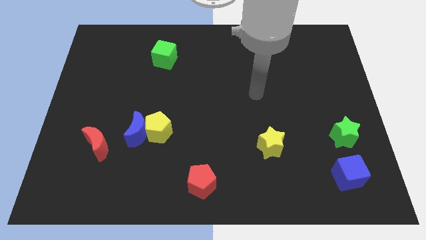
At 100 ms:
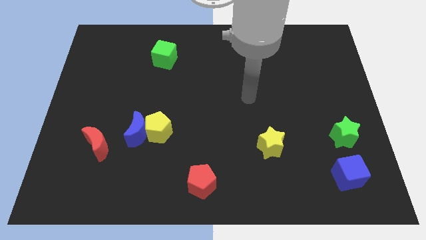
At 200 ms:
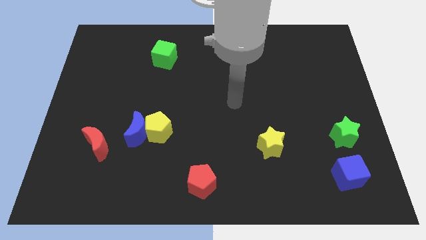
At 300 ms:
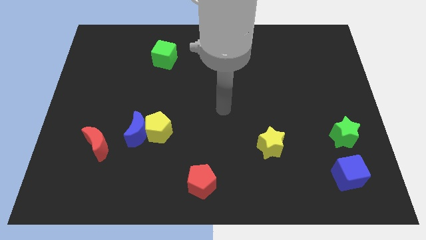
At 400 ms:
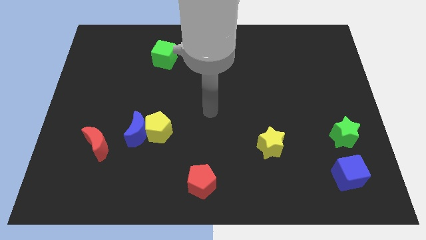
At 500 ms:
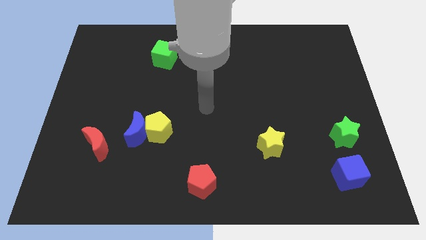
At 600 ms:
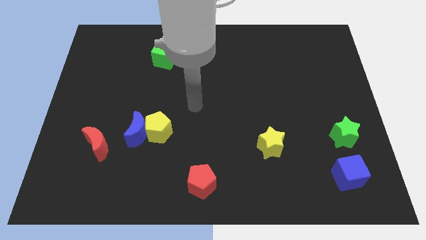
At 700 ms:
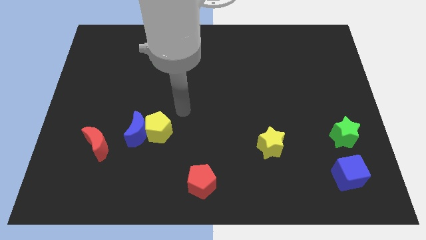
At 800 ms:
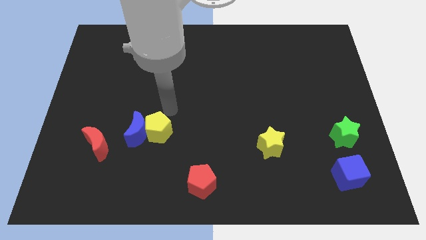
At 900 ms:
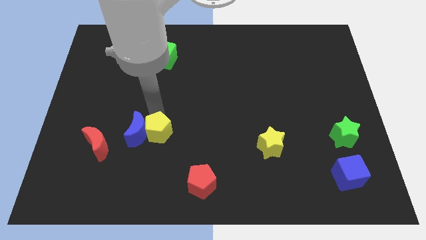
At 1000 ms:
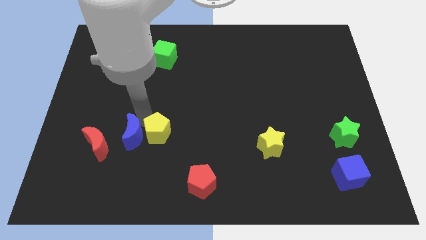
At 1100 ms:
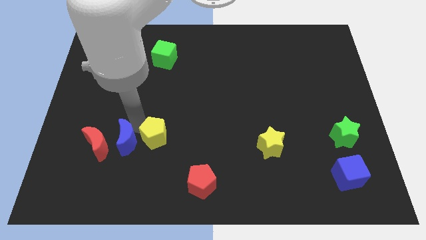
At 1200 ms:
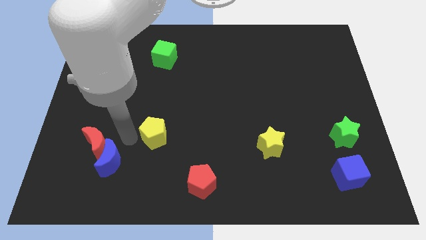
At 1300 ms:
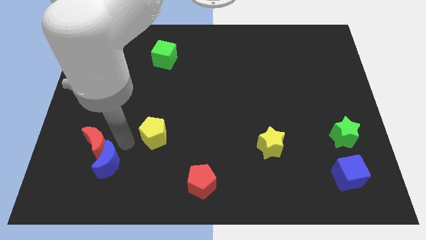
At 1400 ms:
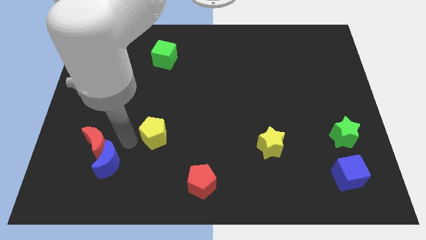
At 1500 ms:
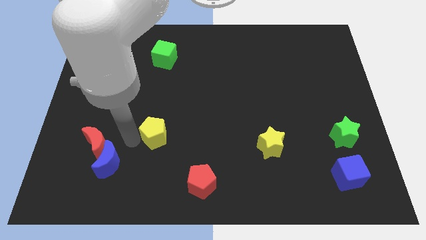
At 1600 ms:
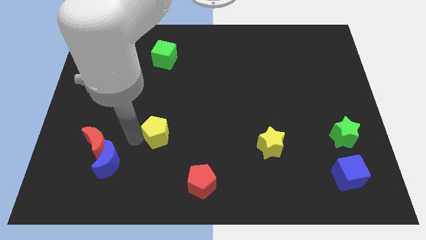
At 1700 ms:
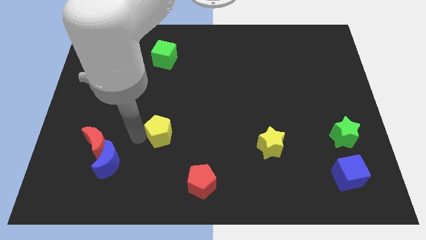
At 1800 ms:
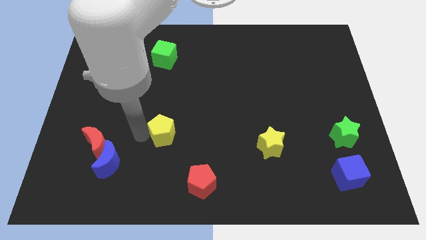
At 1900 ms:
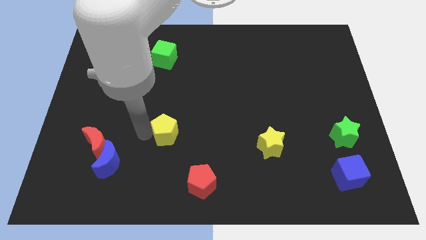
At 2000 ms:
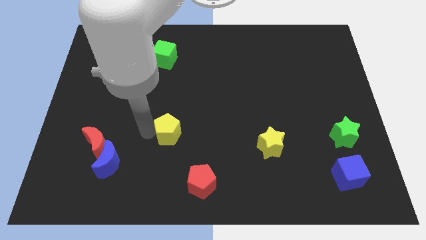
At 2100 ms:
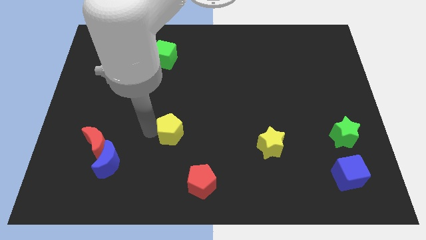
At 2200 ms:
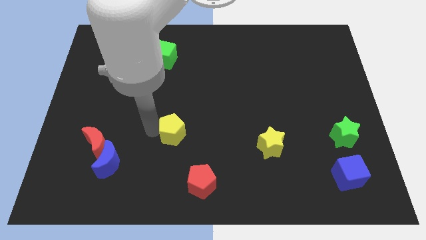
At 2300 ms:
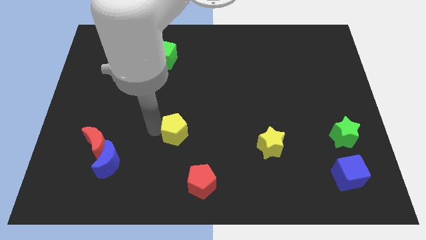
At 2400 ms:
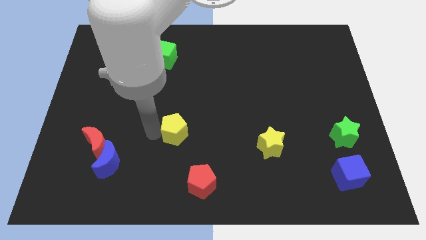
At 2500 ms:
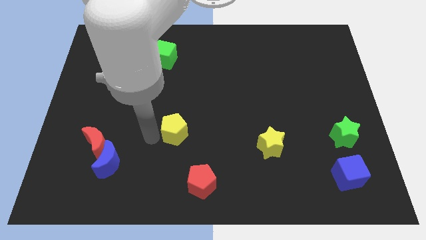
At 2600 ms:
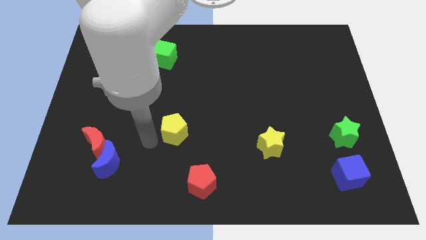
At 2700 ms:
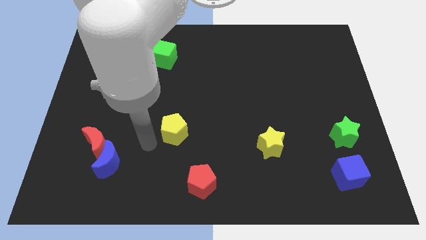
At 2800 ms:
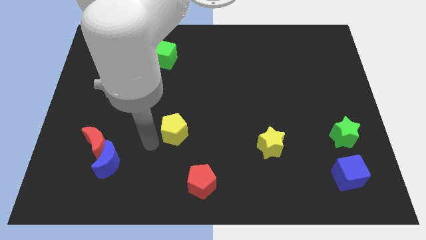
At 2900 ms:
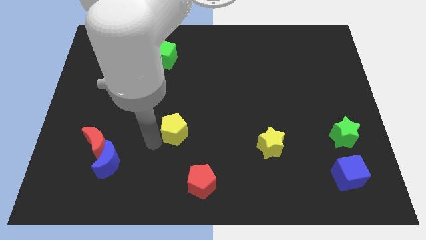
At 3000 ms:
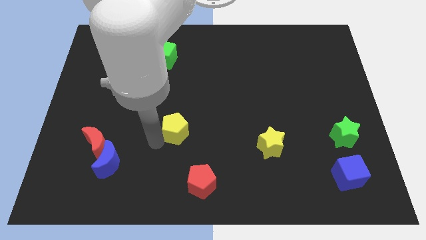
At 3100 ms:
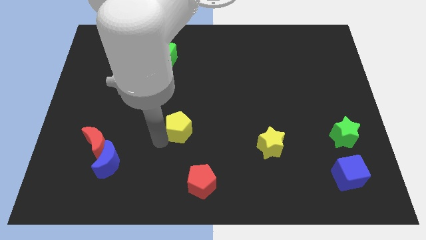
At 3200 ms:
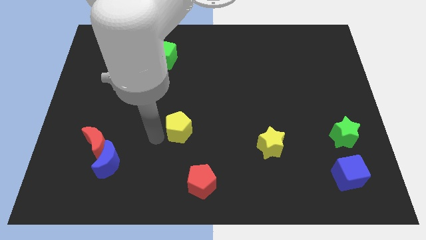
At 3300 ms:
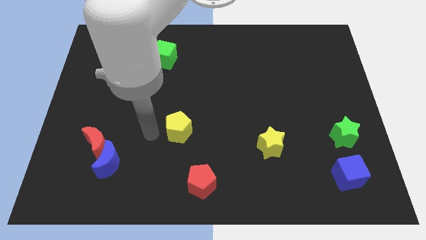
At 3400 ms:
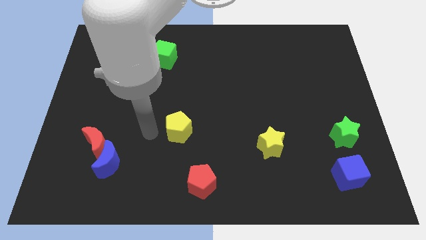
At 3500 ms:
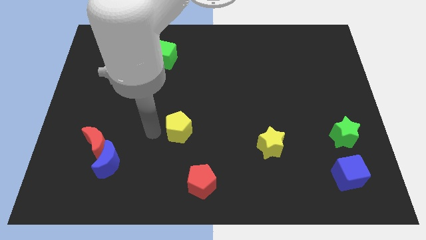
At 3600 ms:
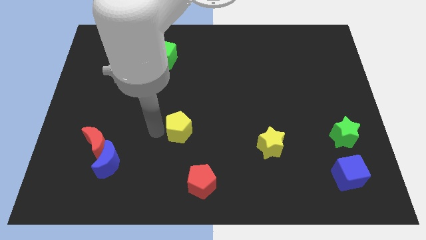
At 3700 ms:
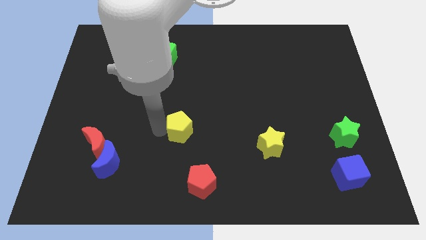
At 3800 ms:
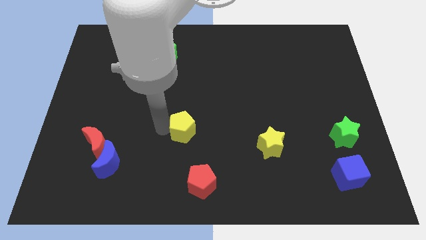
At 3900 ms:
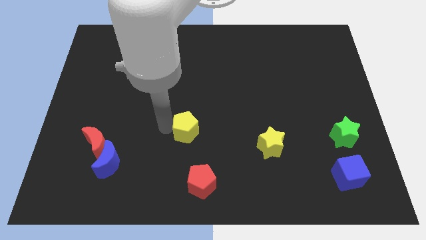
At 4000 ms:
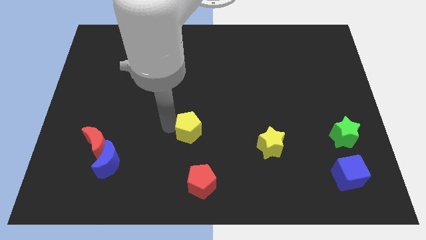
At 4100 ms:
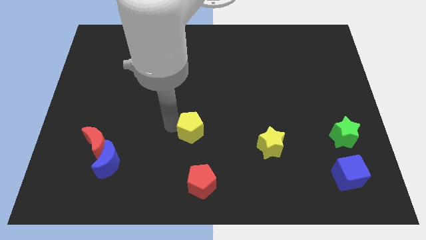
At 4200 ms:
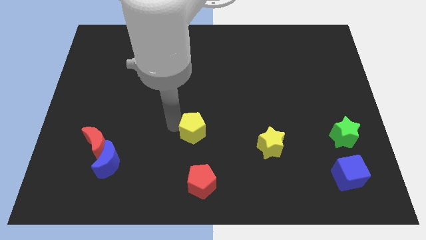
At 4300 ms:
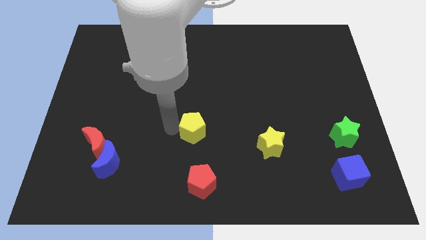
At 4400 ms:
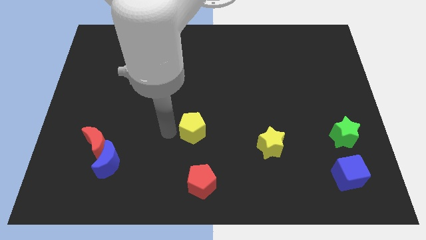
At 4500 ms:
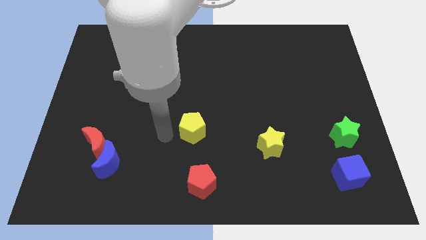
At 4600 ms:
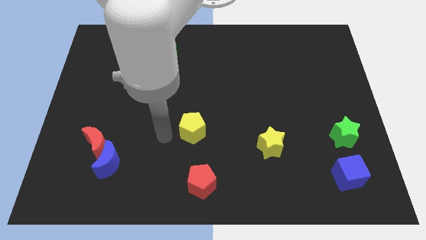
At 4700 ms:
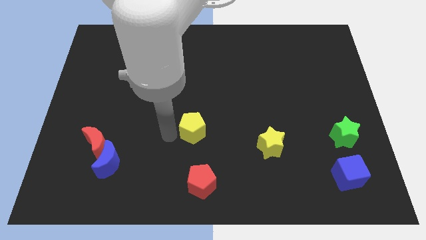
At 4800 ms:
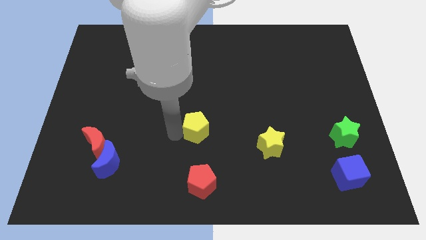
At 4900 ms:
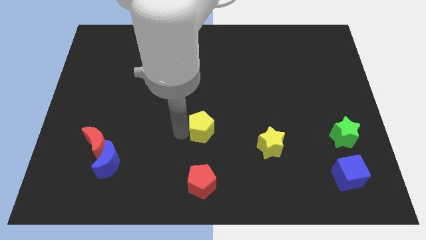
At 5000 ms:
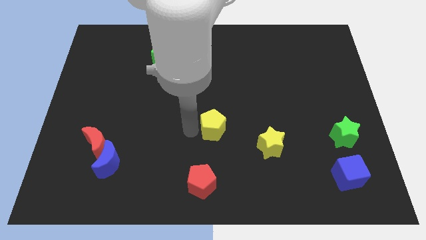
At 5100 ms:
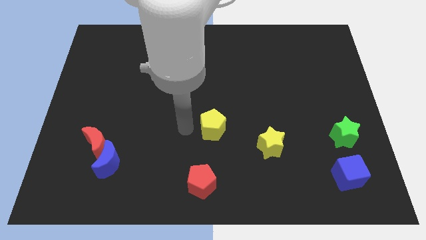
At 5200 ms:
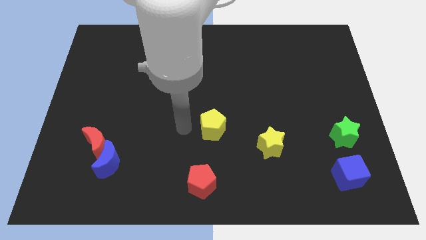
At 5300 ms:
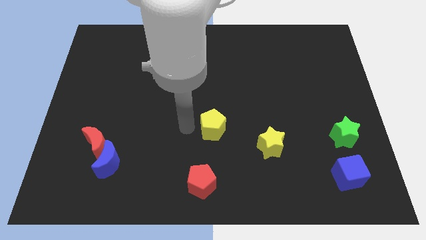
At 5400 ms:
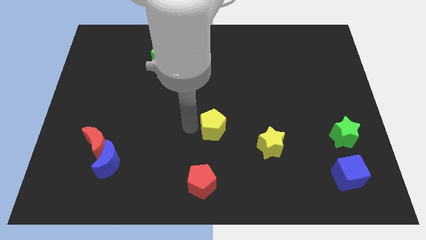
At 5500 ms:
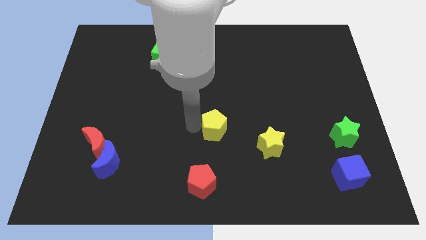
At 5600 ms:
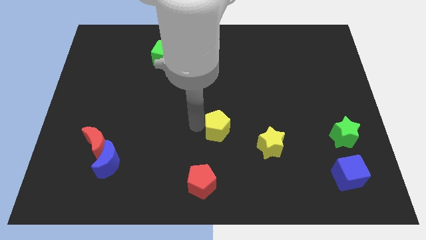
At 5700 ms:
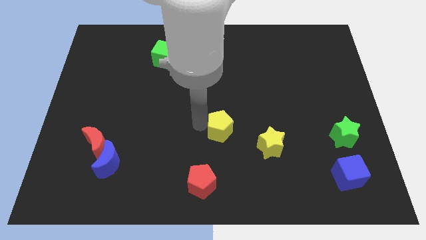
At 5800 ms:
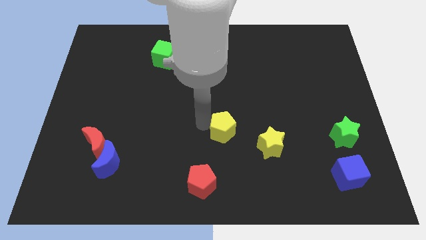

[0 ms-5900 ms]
push the yellow pentagon diagonally up and to the left of the yellow star

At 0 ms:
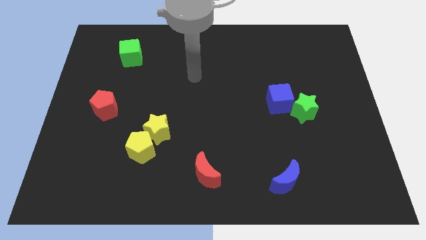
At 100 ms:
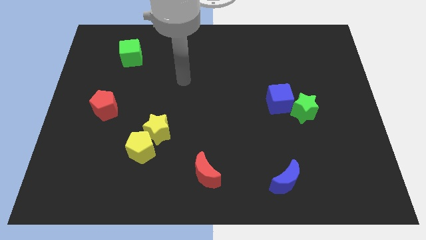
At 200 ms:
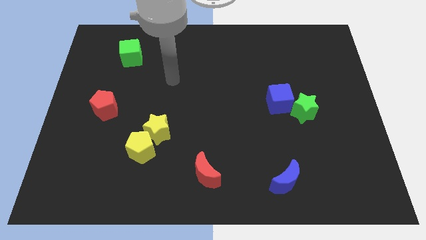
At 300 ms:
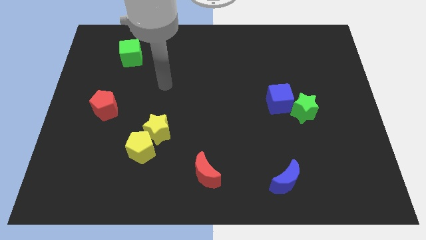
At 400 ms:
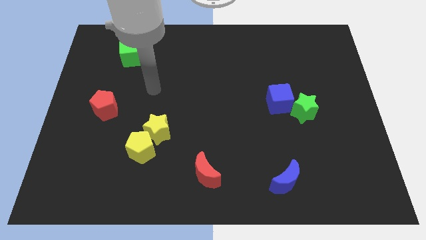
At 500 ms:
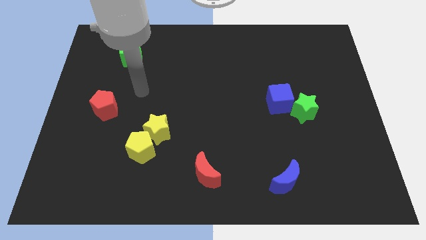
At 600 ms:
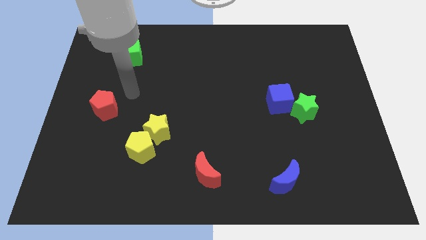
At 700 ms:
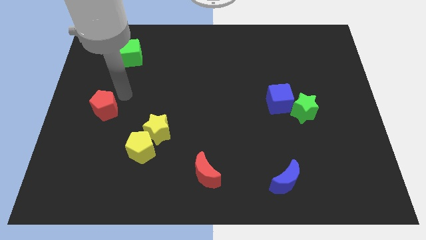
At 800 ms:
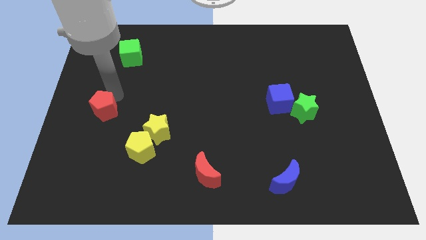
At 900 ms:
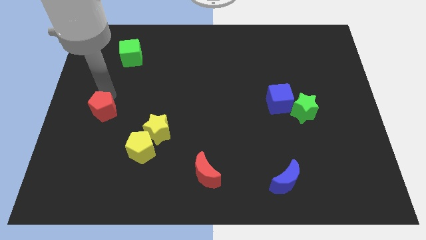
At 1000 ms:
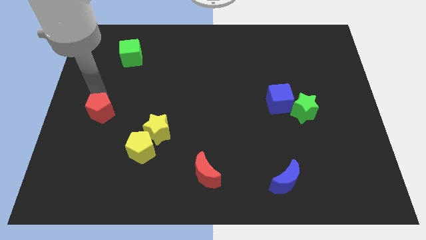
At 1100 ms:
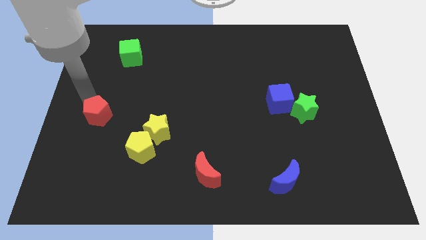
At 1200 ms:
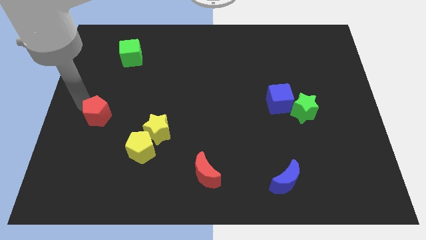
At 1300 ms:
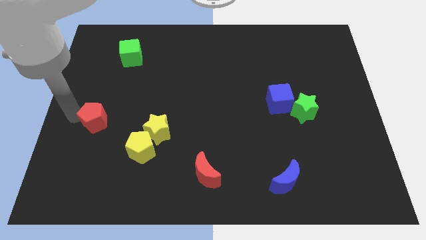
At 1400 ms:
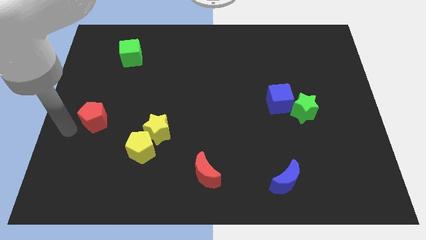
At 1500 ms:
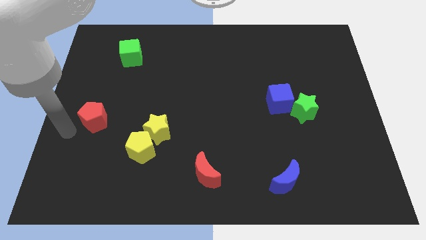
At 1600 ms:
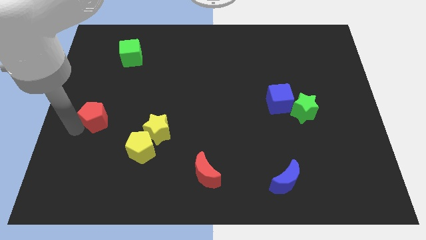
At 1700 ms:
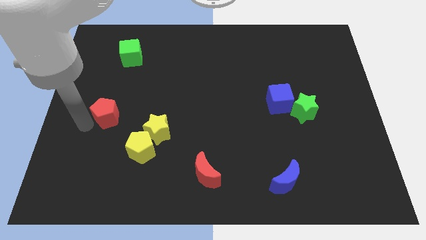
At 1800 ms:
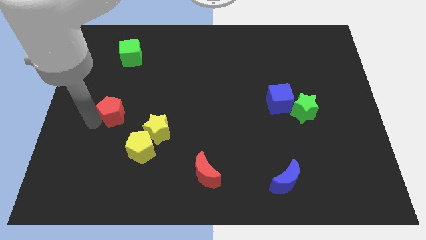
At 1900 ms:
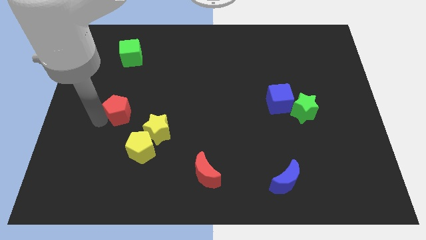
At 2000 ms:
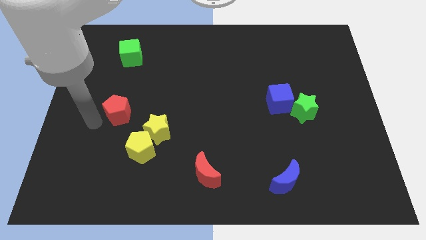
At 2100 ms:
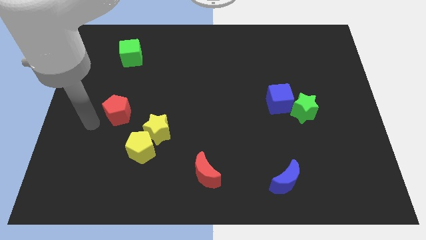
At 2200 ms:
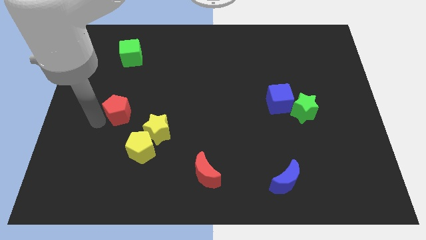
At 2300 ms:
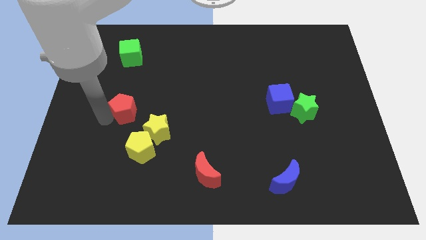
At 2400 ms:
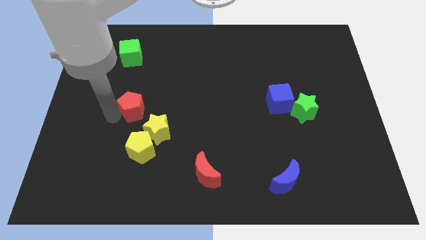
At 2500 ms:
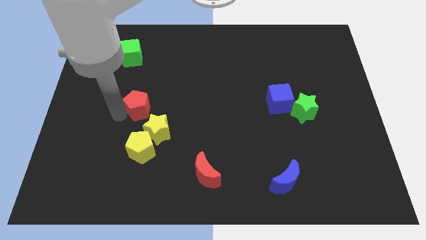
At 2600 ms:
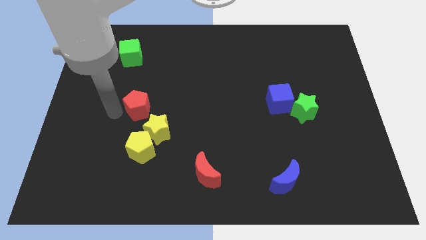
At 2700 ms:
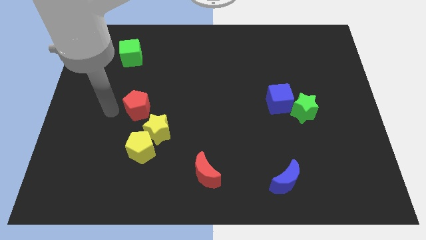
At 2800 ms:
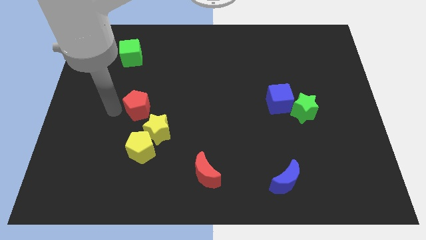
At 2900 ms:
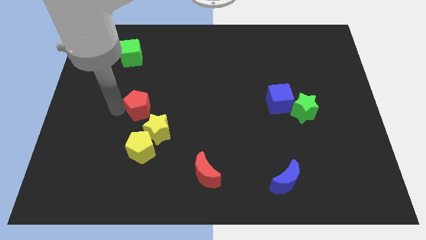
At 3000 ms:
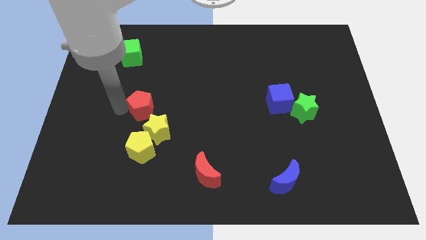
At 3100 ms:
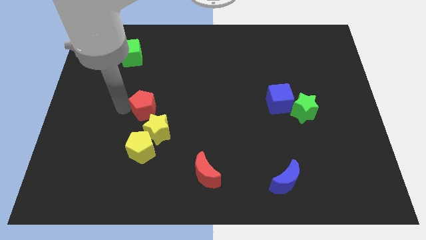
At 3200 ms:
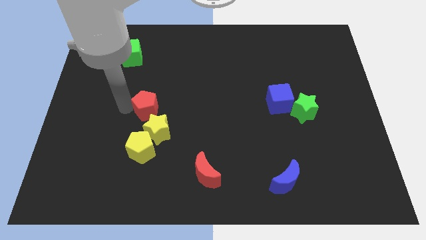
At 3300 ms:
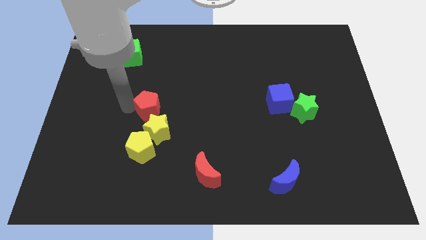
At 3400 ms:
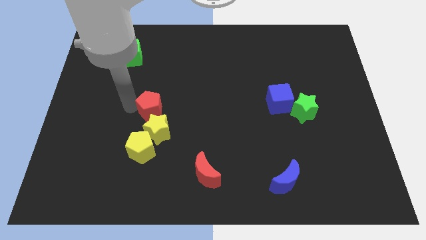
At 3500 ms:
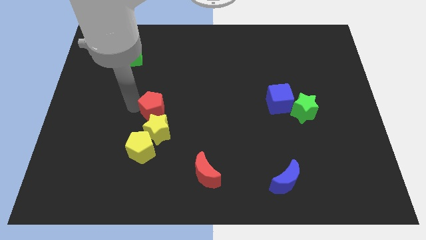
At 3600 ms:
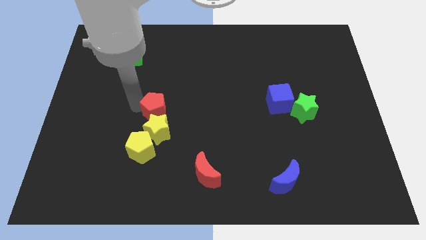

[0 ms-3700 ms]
slide the red pentagon to the top right side of the yellow star
